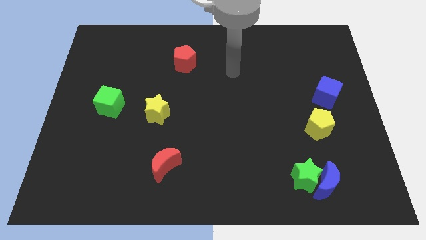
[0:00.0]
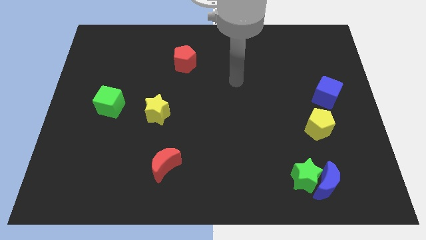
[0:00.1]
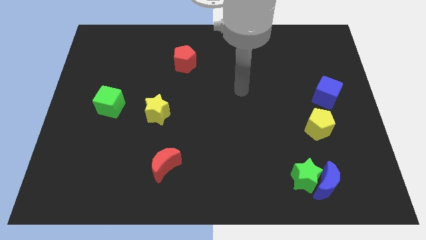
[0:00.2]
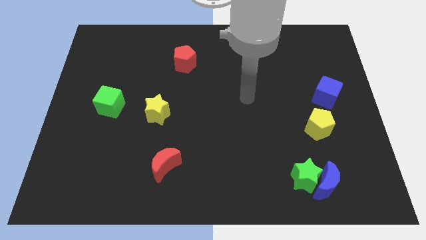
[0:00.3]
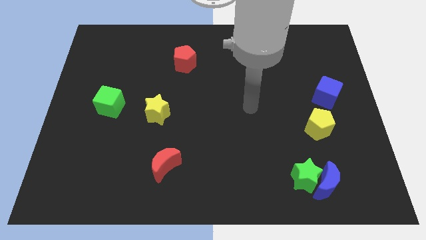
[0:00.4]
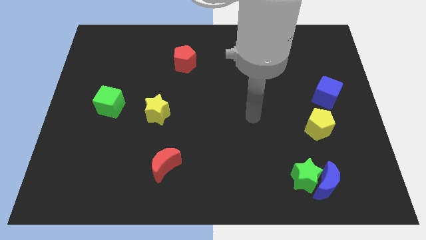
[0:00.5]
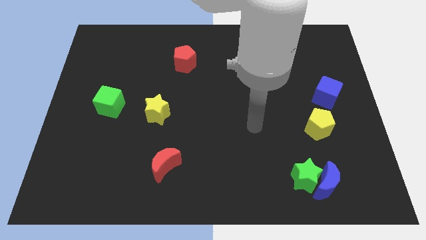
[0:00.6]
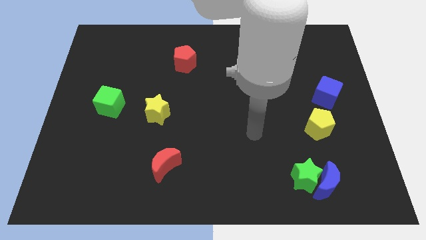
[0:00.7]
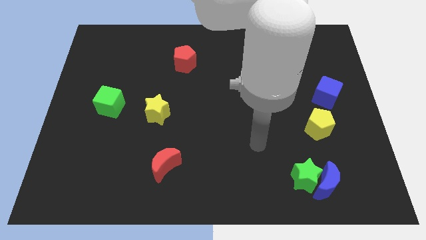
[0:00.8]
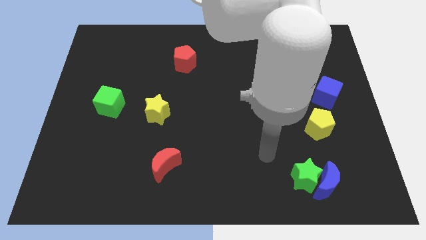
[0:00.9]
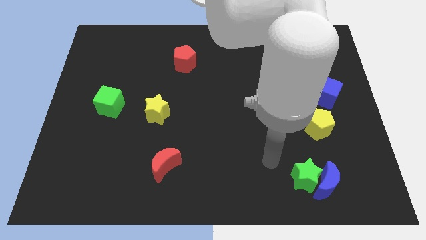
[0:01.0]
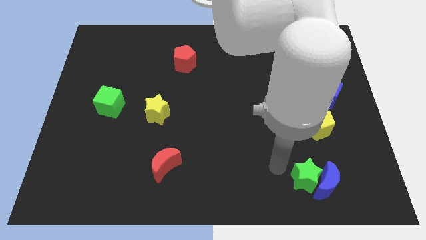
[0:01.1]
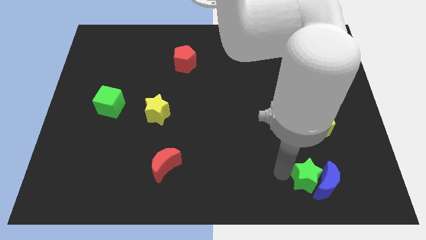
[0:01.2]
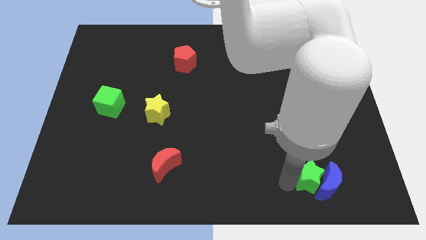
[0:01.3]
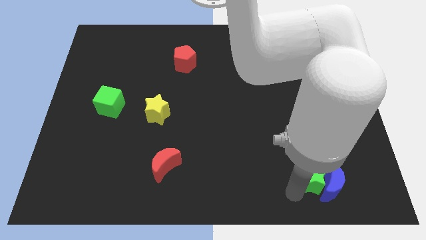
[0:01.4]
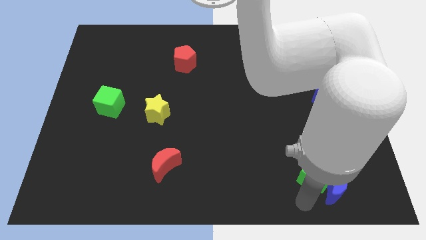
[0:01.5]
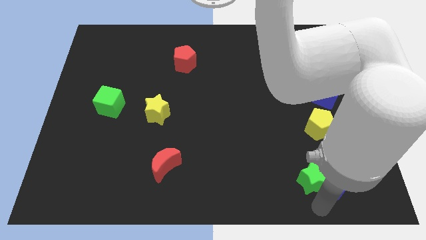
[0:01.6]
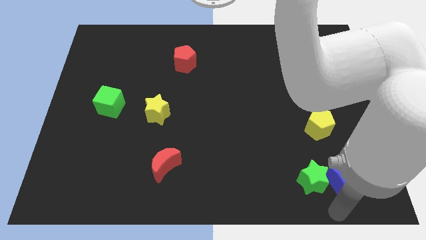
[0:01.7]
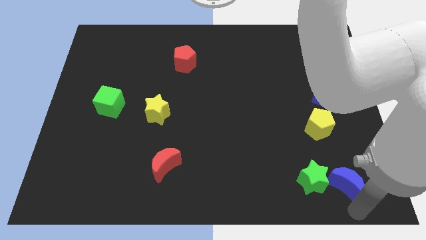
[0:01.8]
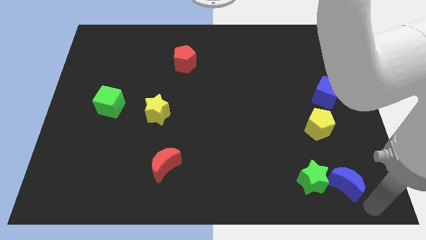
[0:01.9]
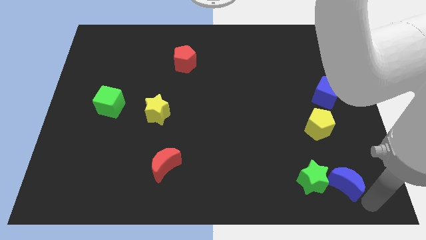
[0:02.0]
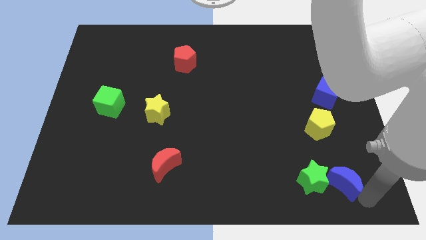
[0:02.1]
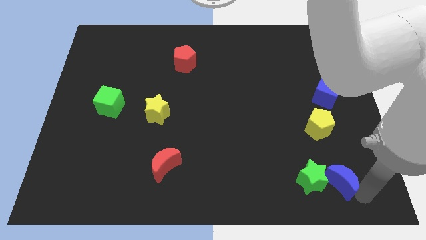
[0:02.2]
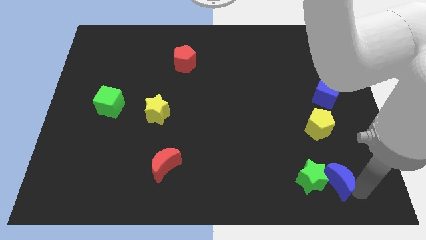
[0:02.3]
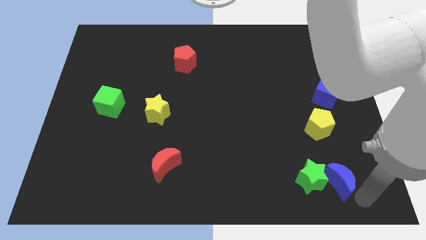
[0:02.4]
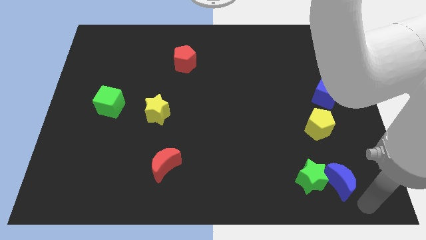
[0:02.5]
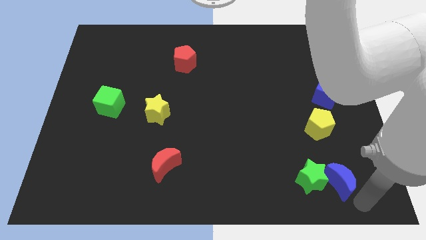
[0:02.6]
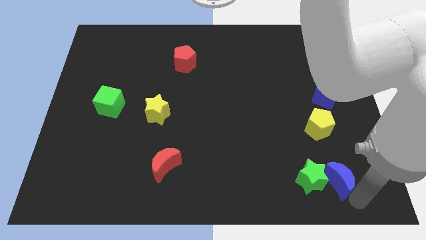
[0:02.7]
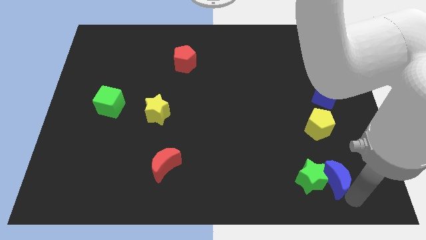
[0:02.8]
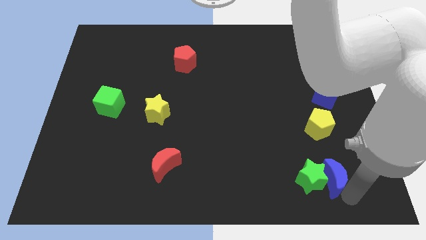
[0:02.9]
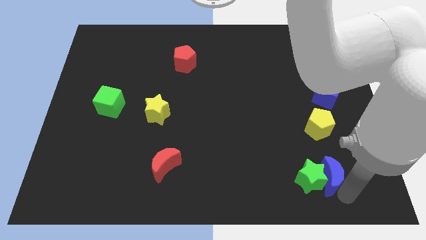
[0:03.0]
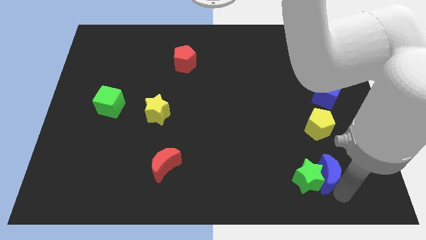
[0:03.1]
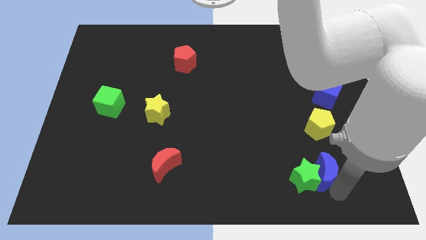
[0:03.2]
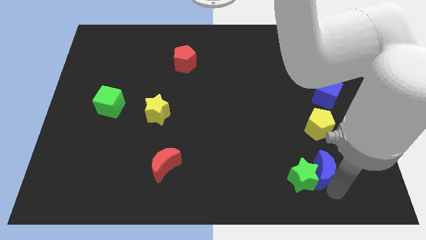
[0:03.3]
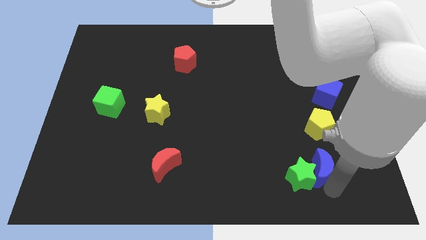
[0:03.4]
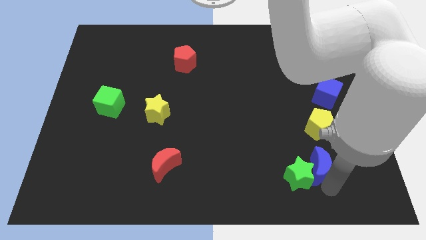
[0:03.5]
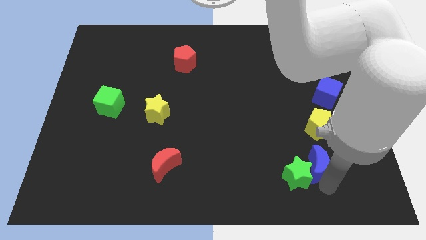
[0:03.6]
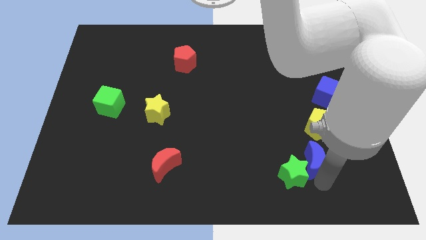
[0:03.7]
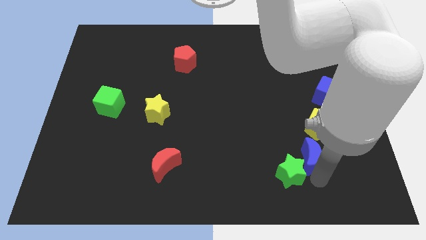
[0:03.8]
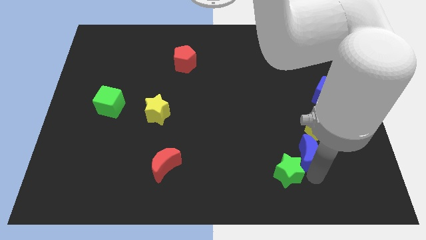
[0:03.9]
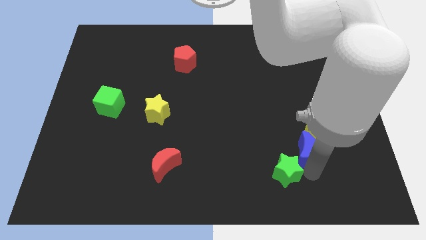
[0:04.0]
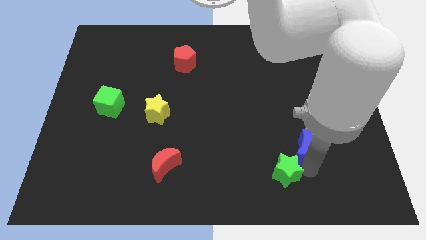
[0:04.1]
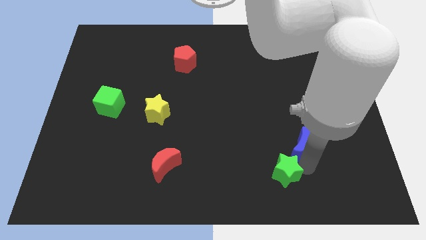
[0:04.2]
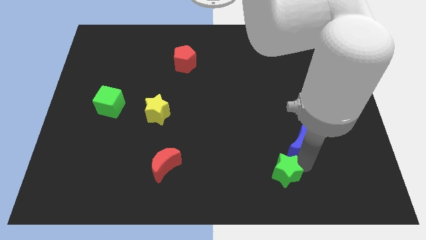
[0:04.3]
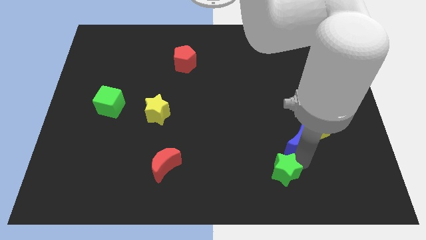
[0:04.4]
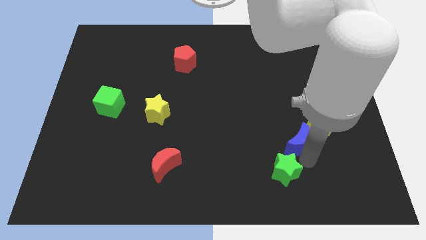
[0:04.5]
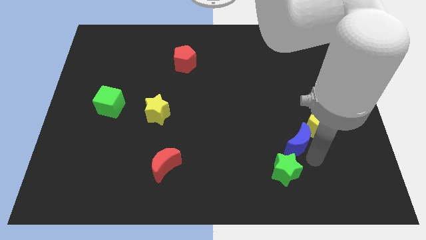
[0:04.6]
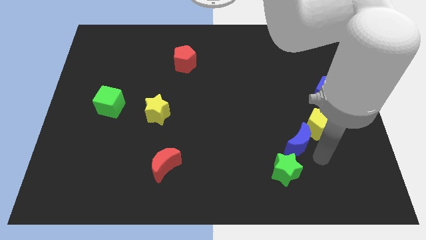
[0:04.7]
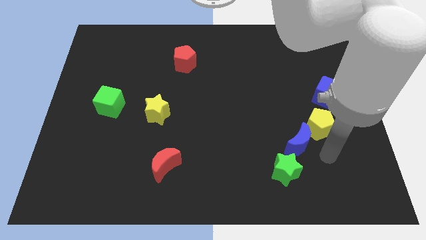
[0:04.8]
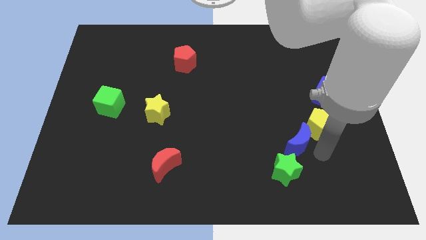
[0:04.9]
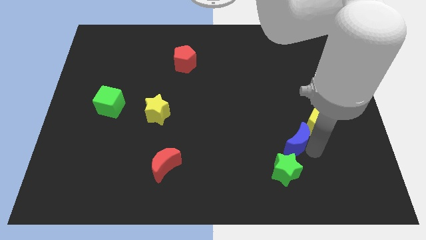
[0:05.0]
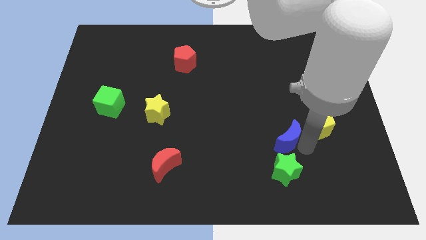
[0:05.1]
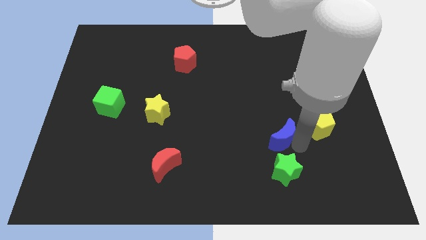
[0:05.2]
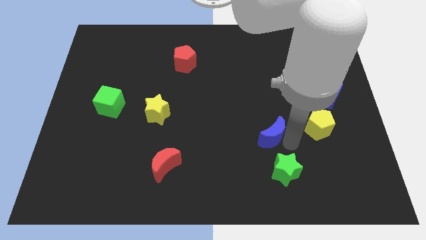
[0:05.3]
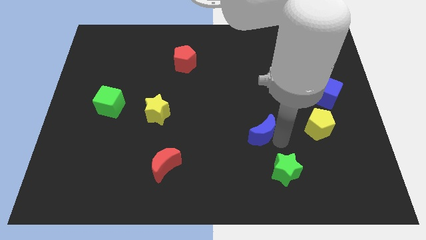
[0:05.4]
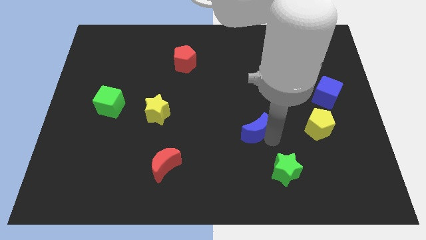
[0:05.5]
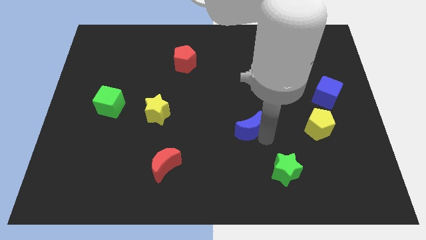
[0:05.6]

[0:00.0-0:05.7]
move the blue moon up and to the left

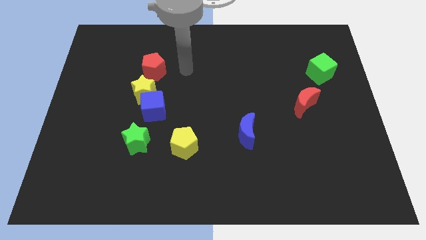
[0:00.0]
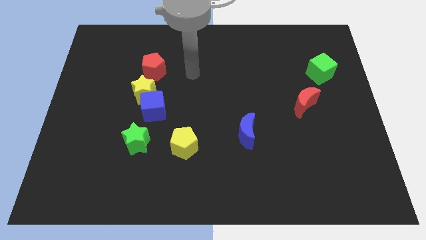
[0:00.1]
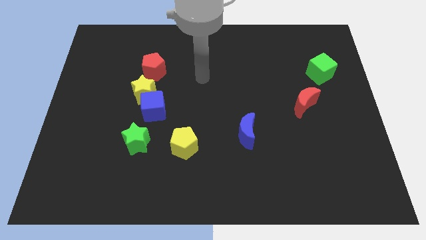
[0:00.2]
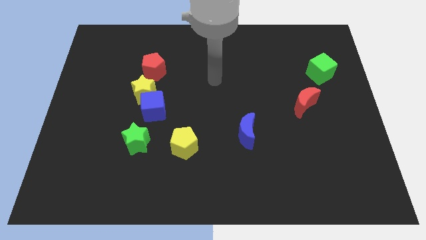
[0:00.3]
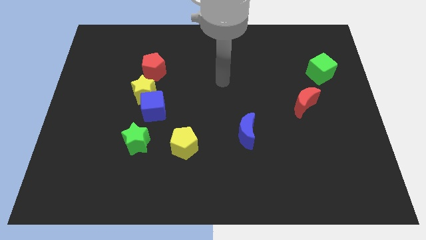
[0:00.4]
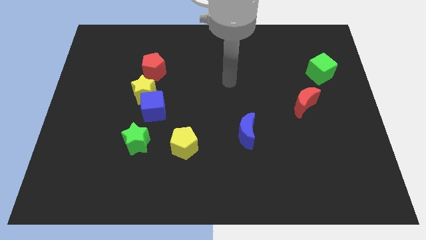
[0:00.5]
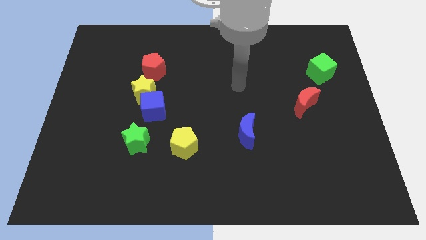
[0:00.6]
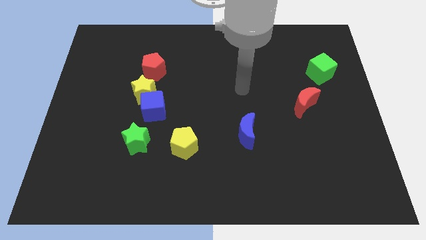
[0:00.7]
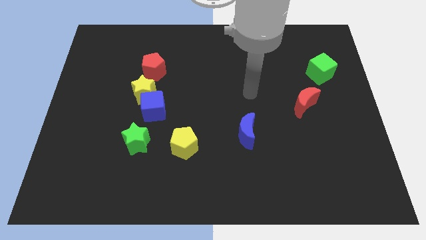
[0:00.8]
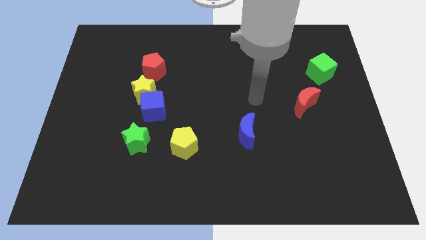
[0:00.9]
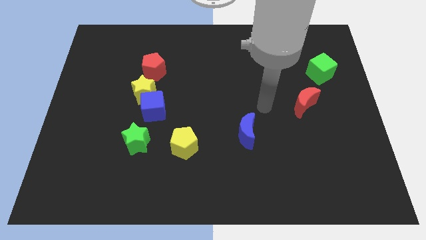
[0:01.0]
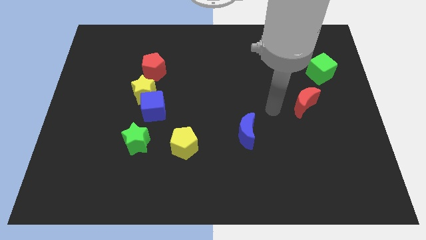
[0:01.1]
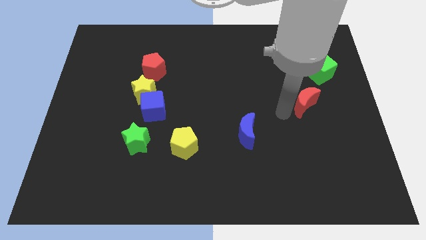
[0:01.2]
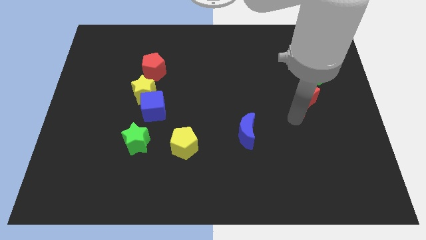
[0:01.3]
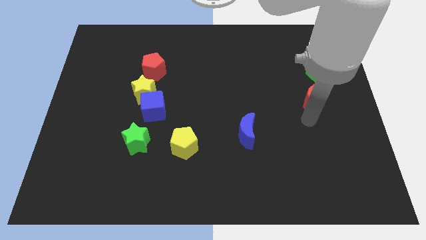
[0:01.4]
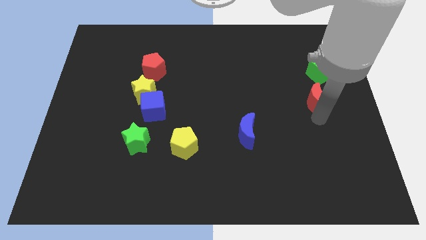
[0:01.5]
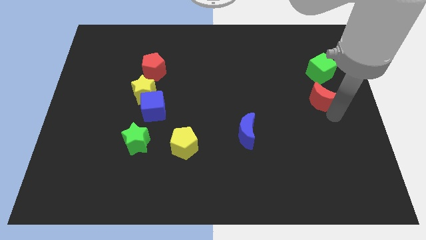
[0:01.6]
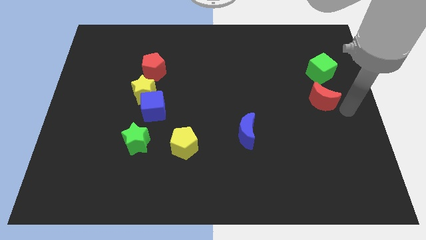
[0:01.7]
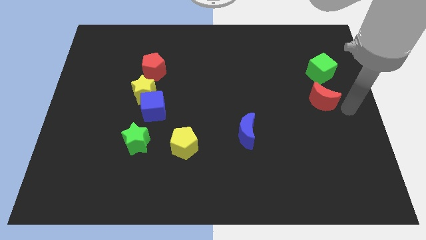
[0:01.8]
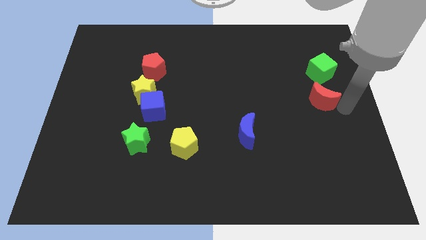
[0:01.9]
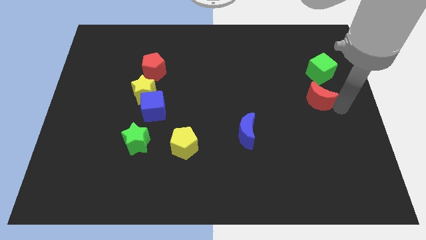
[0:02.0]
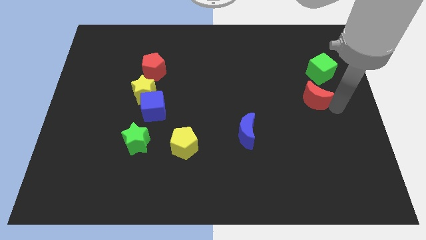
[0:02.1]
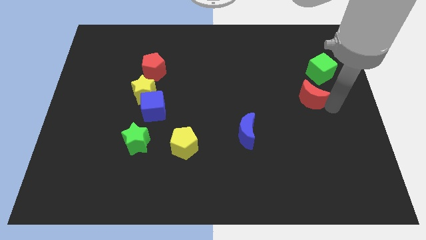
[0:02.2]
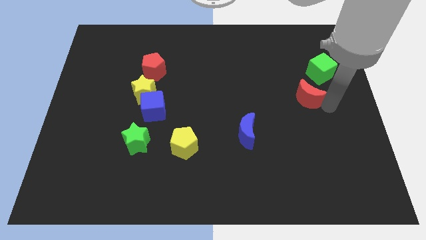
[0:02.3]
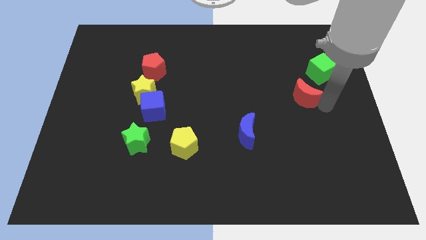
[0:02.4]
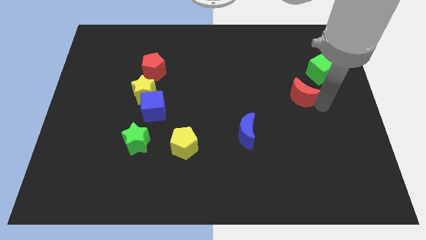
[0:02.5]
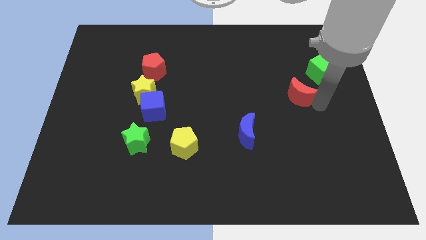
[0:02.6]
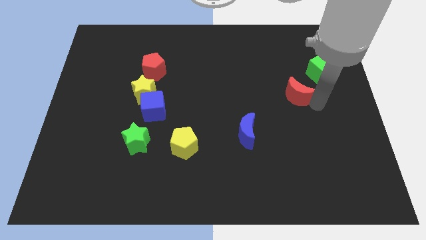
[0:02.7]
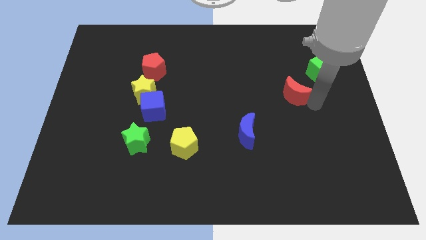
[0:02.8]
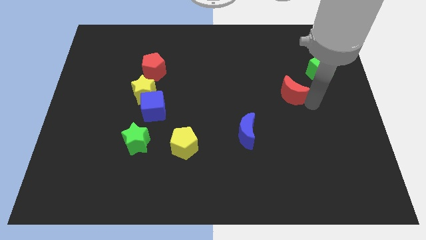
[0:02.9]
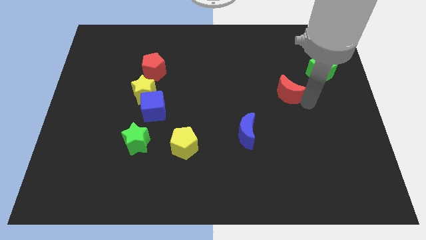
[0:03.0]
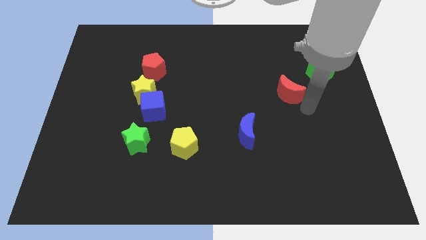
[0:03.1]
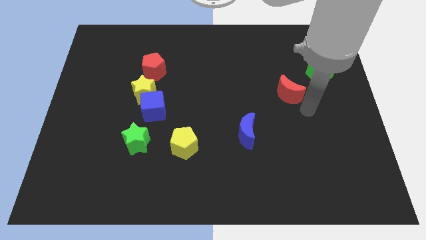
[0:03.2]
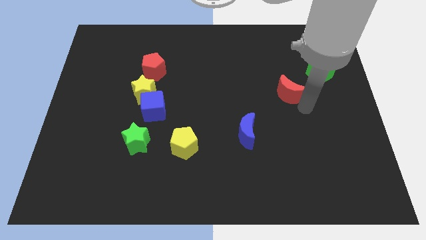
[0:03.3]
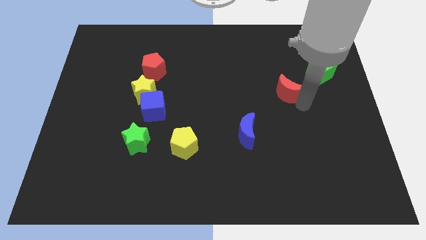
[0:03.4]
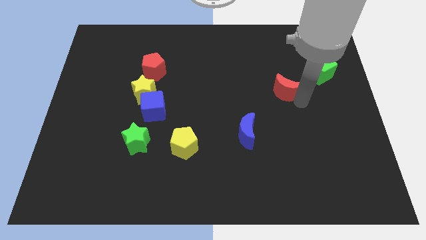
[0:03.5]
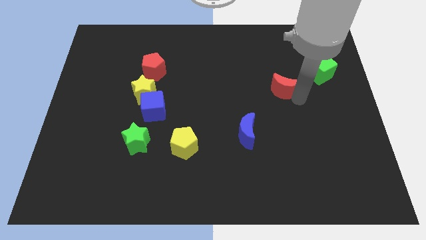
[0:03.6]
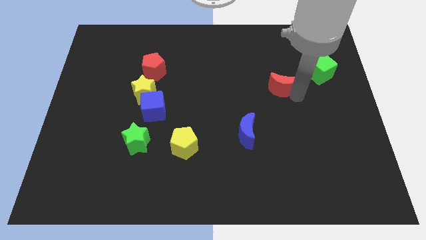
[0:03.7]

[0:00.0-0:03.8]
slide the red moon up and then to the left a bit
